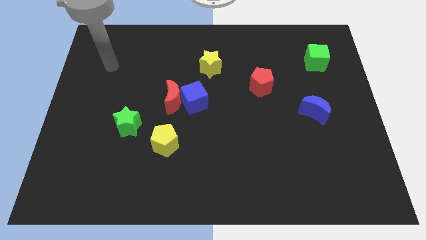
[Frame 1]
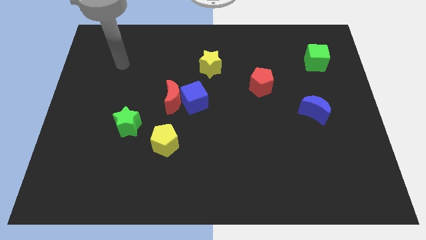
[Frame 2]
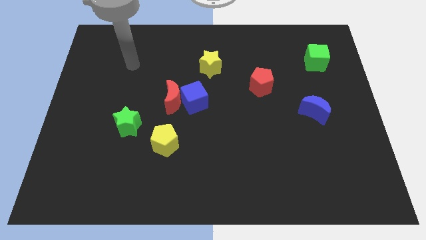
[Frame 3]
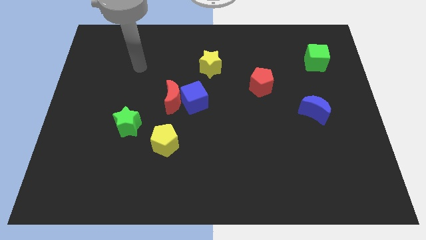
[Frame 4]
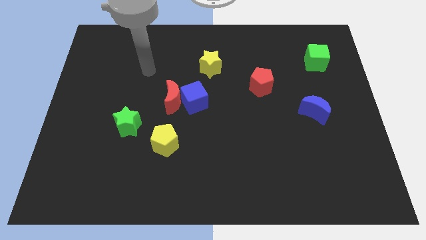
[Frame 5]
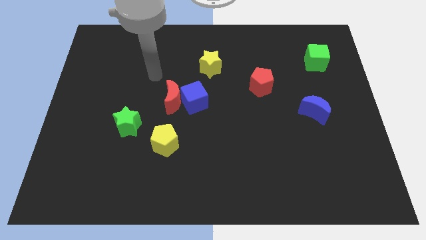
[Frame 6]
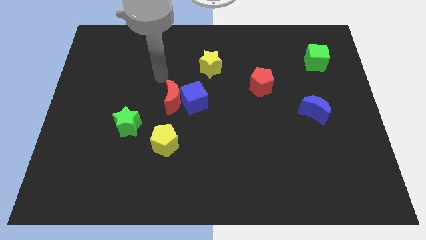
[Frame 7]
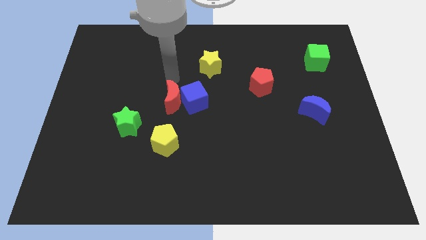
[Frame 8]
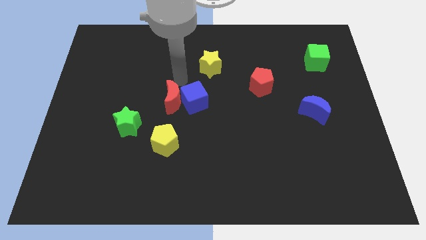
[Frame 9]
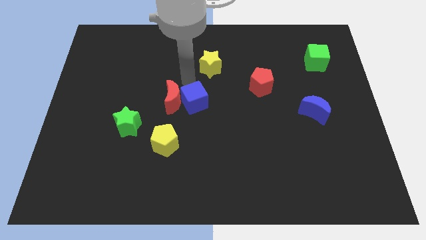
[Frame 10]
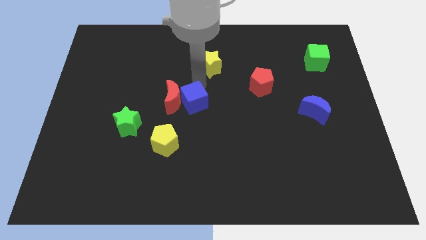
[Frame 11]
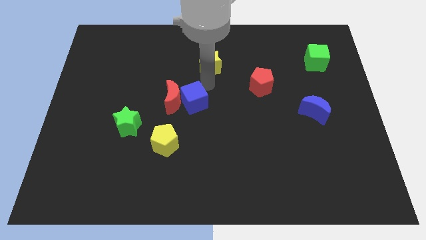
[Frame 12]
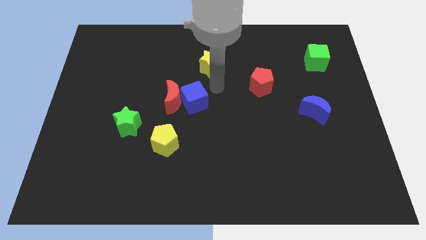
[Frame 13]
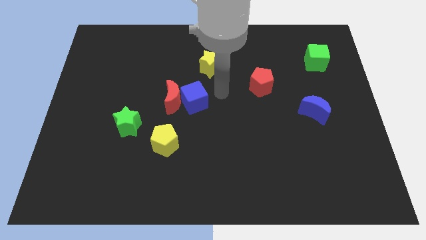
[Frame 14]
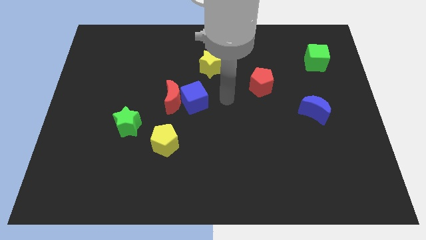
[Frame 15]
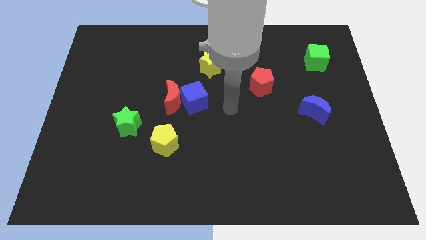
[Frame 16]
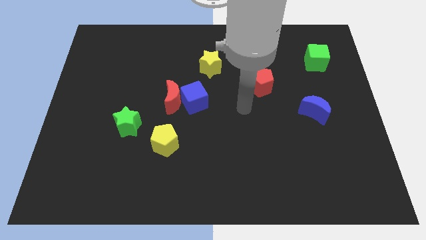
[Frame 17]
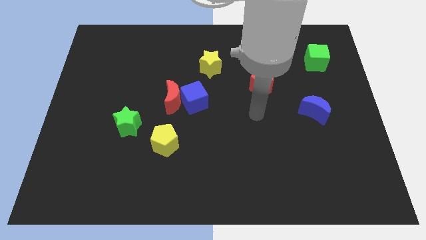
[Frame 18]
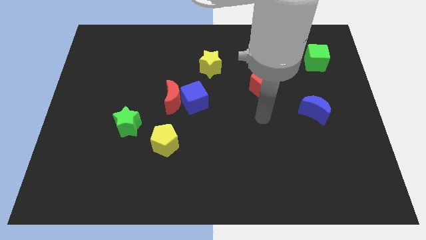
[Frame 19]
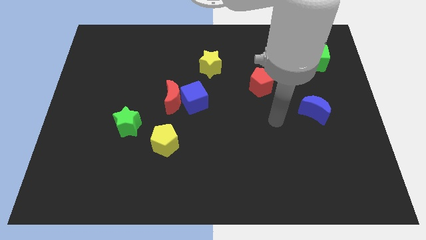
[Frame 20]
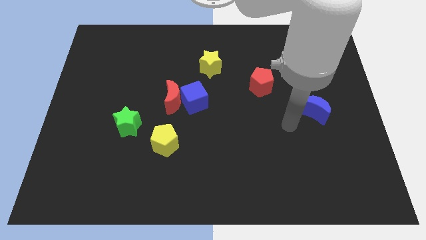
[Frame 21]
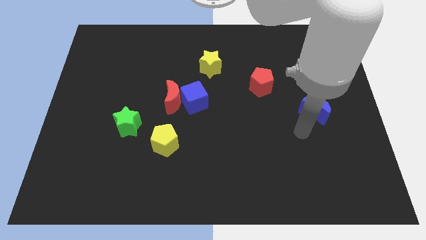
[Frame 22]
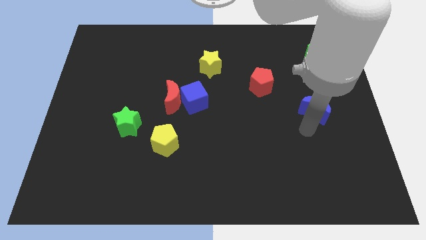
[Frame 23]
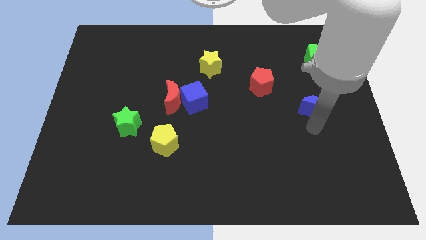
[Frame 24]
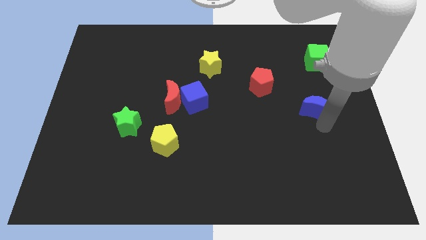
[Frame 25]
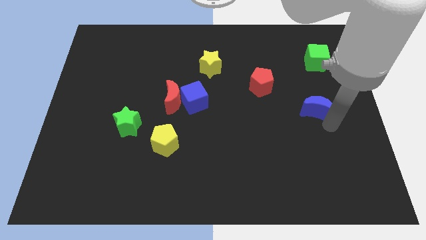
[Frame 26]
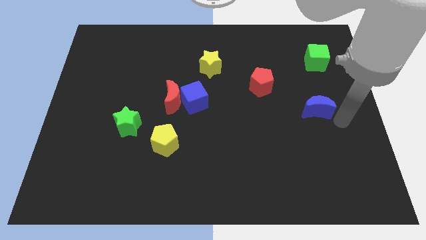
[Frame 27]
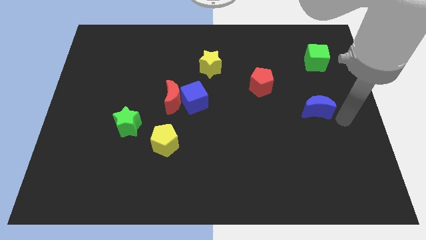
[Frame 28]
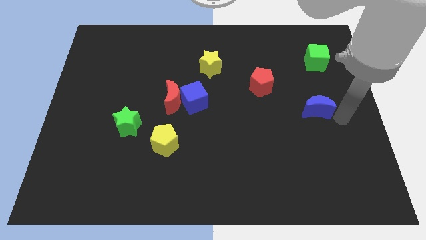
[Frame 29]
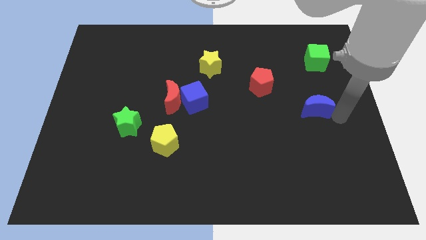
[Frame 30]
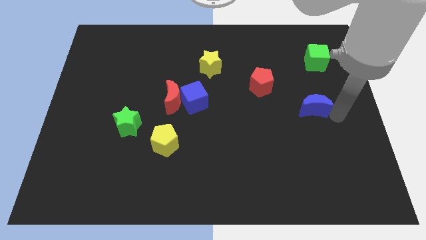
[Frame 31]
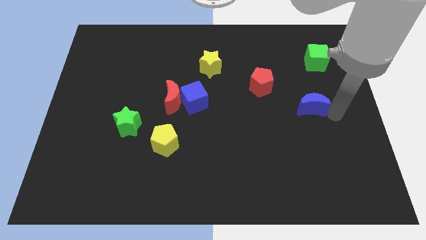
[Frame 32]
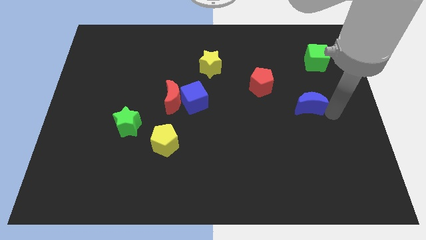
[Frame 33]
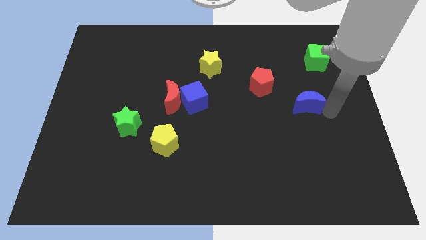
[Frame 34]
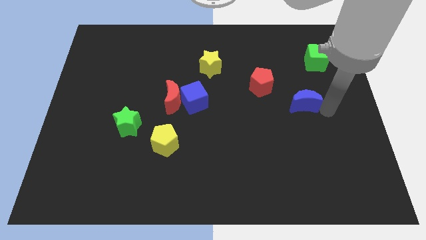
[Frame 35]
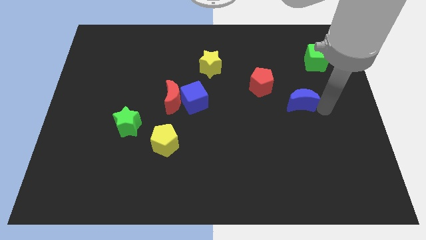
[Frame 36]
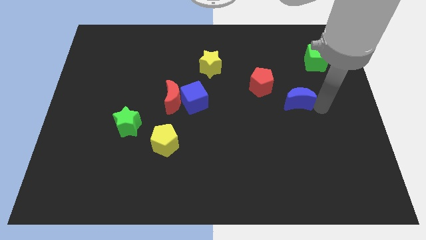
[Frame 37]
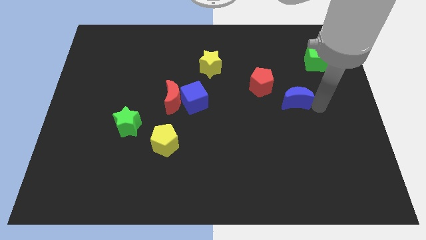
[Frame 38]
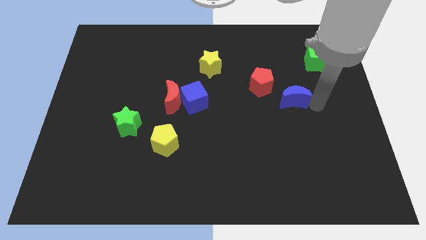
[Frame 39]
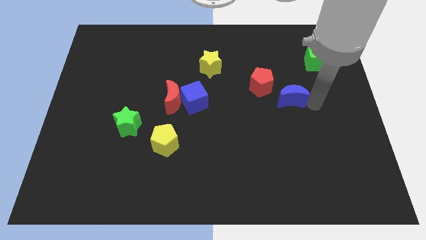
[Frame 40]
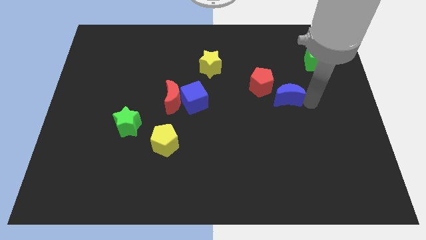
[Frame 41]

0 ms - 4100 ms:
slide the blue moon upwards and to the left a little

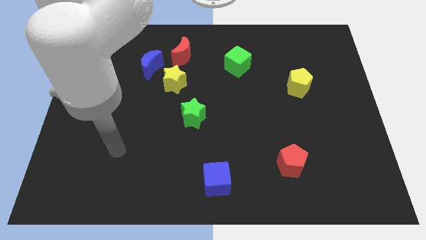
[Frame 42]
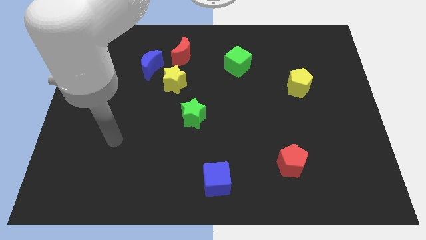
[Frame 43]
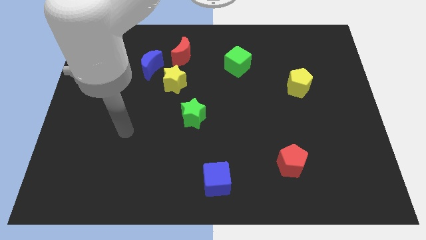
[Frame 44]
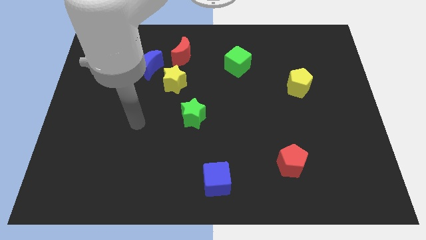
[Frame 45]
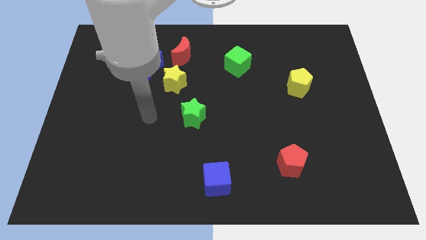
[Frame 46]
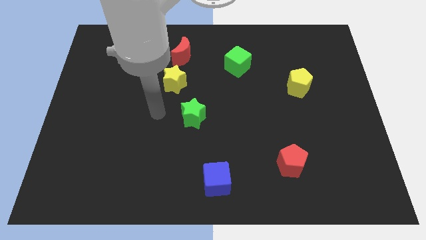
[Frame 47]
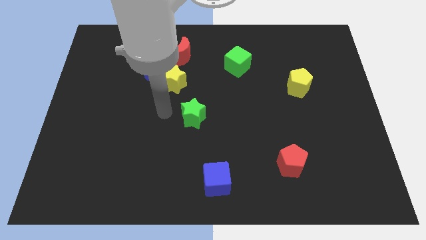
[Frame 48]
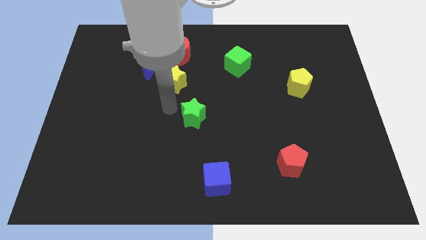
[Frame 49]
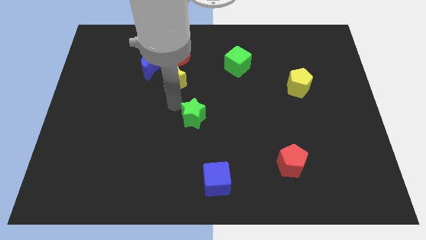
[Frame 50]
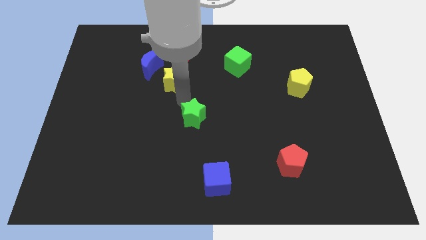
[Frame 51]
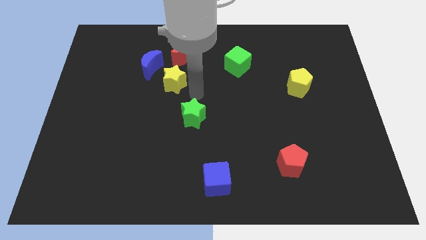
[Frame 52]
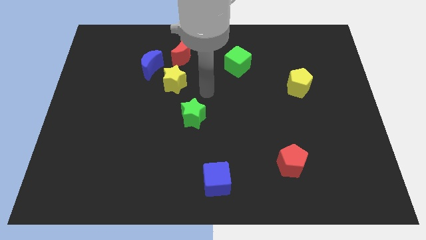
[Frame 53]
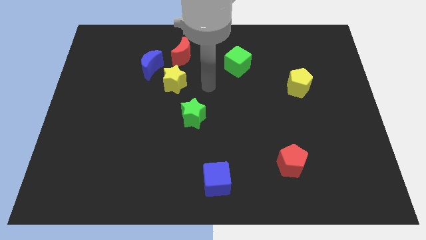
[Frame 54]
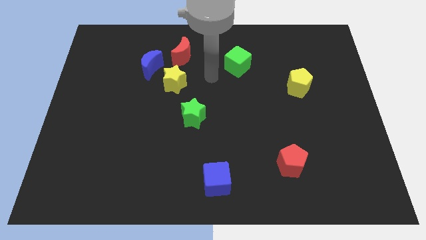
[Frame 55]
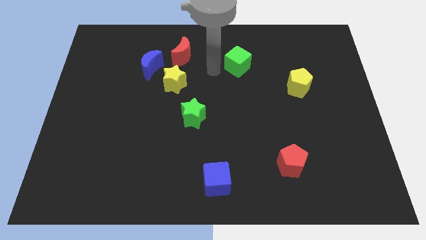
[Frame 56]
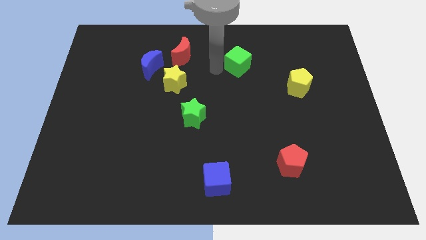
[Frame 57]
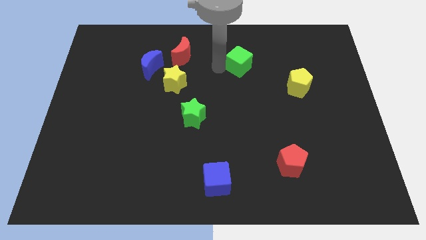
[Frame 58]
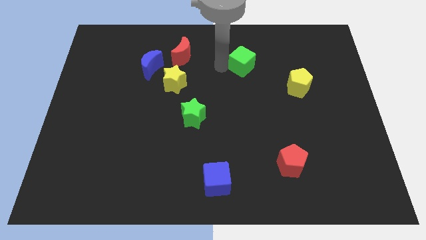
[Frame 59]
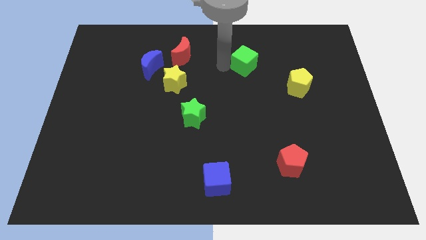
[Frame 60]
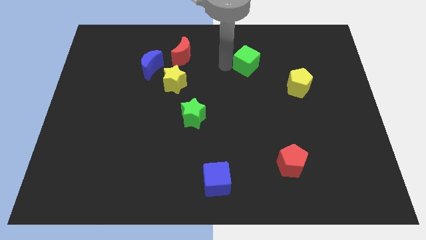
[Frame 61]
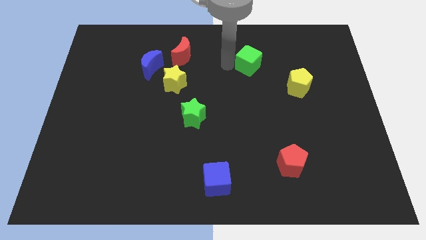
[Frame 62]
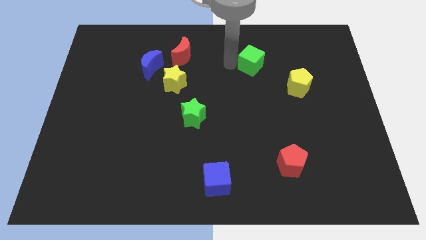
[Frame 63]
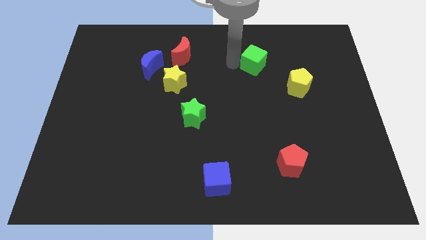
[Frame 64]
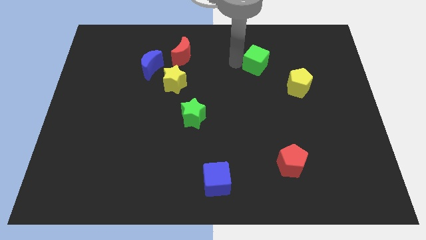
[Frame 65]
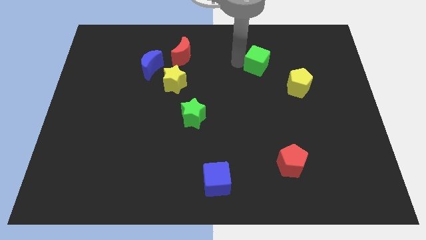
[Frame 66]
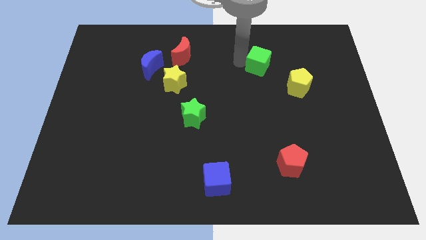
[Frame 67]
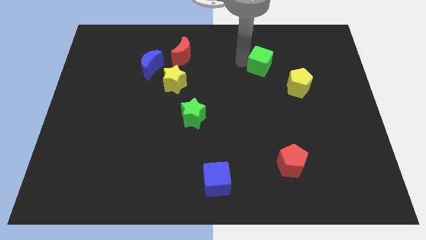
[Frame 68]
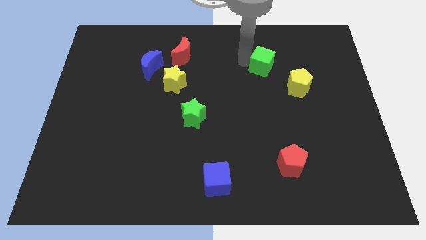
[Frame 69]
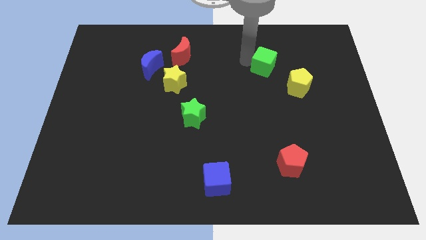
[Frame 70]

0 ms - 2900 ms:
push the green cube somewhat to the right

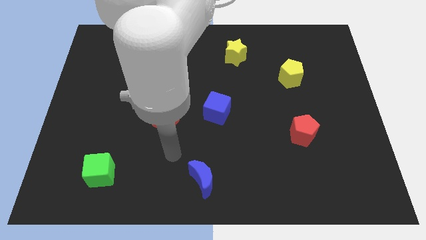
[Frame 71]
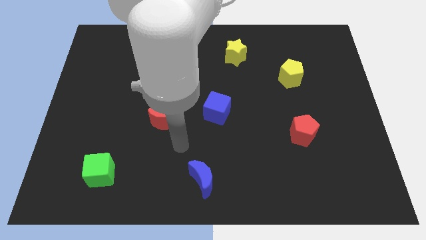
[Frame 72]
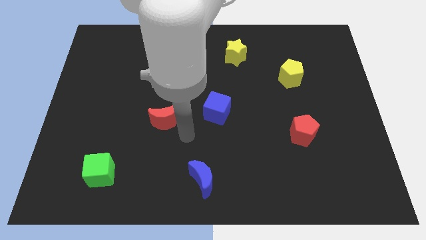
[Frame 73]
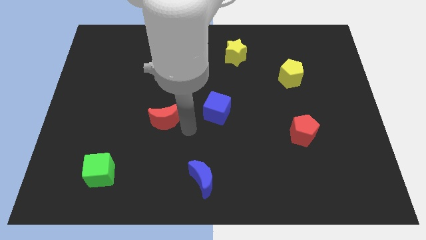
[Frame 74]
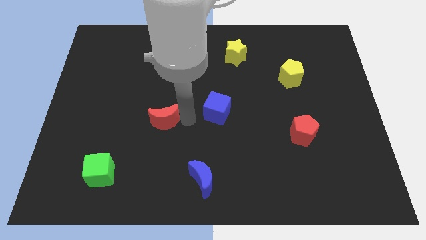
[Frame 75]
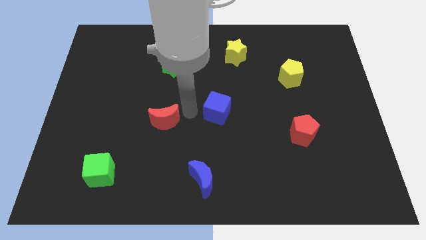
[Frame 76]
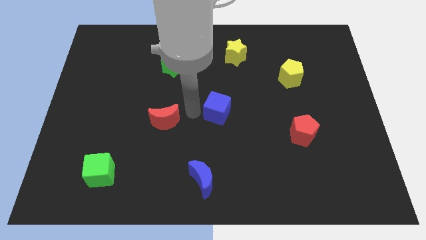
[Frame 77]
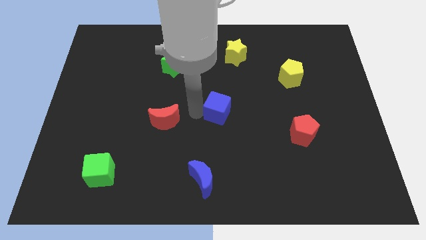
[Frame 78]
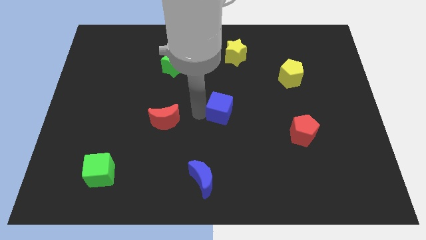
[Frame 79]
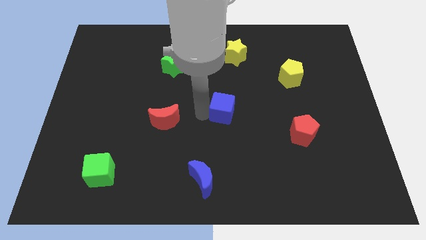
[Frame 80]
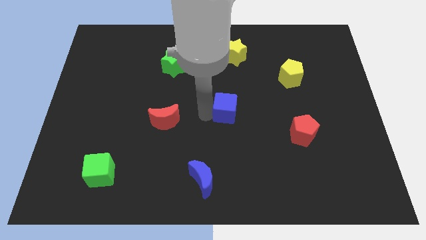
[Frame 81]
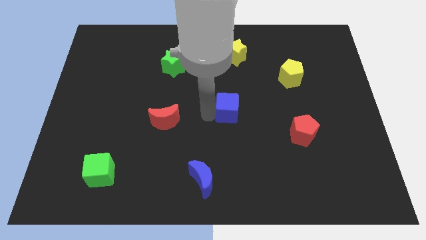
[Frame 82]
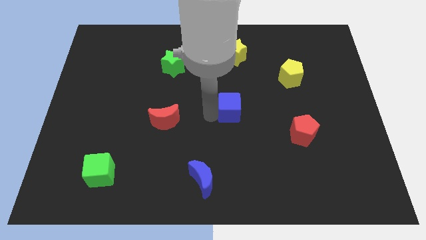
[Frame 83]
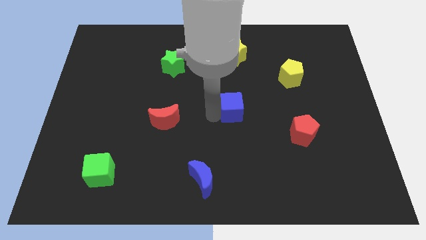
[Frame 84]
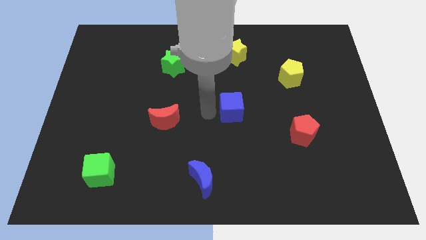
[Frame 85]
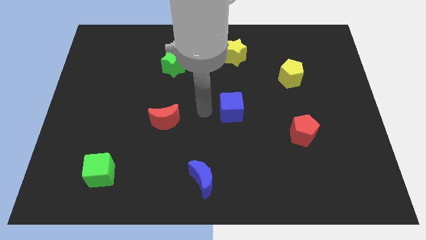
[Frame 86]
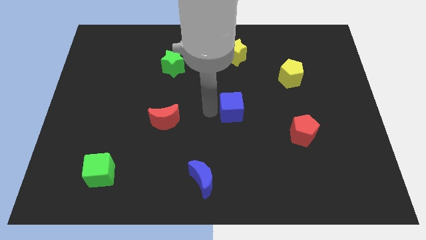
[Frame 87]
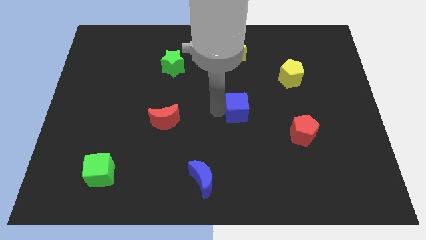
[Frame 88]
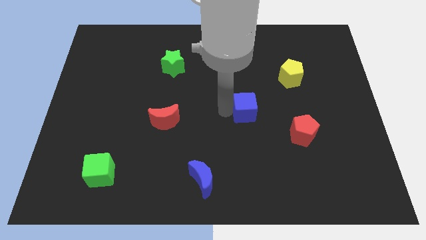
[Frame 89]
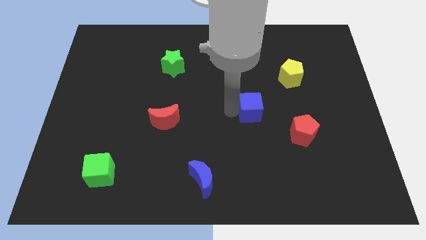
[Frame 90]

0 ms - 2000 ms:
slide the blue cube a little right
